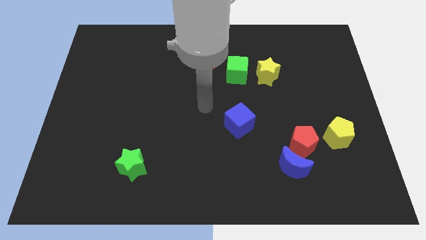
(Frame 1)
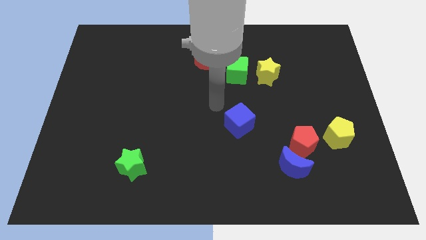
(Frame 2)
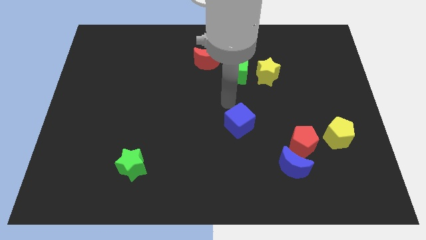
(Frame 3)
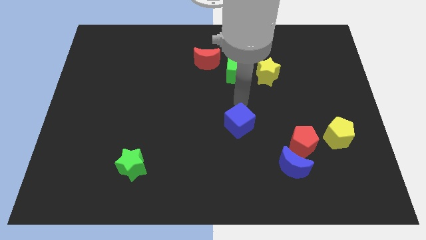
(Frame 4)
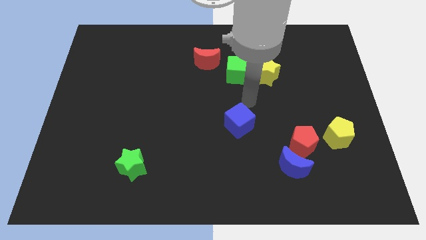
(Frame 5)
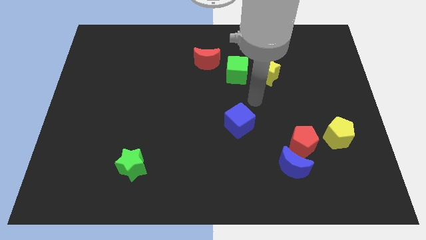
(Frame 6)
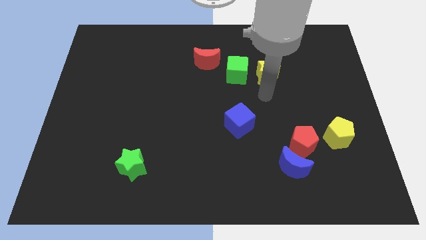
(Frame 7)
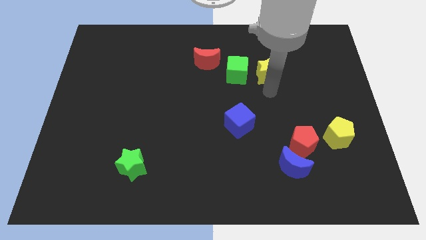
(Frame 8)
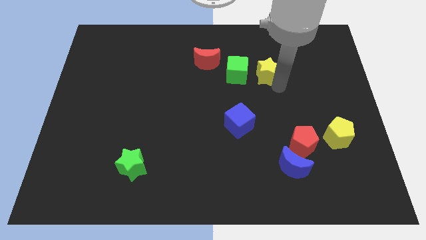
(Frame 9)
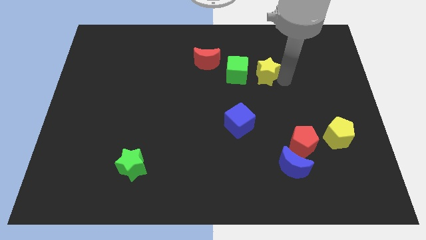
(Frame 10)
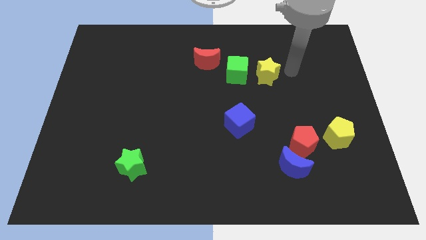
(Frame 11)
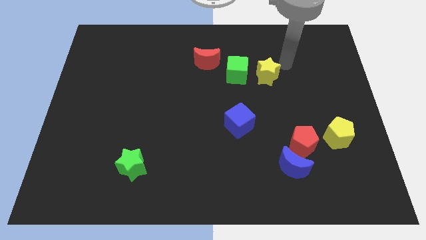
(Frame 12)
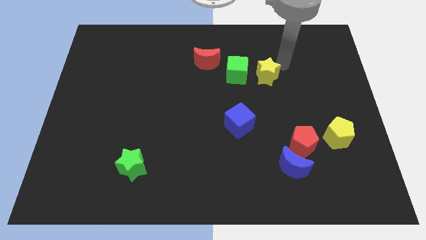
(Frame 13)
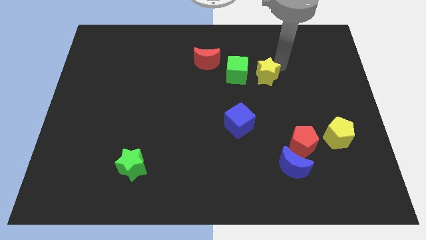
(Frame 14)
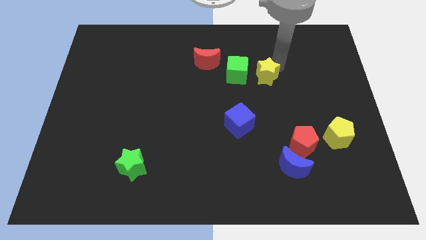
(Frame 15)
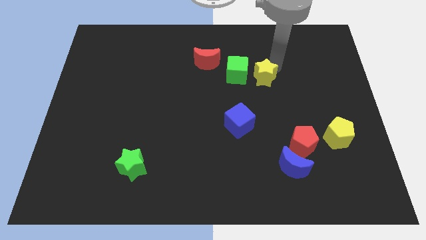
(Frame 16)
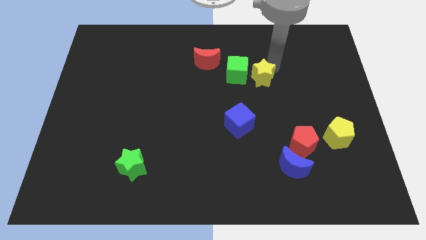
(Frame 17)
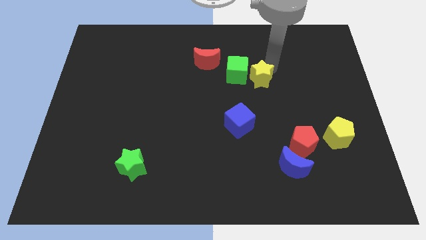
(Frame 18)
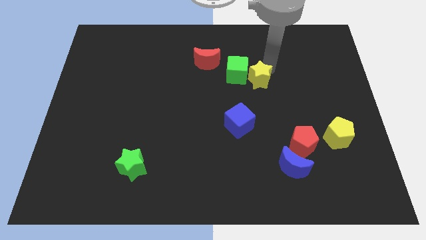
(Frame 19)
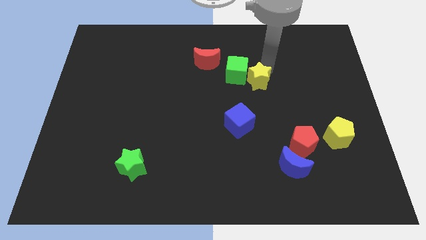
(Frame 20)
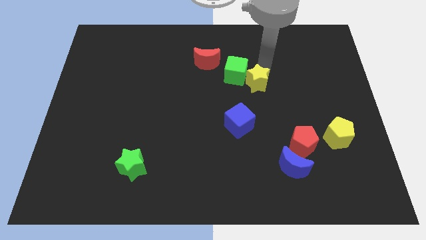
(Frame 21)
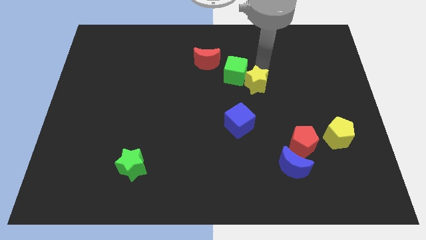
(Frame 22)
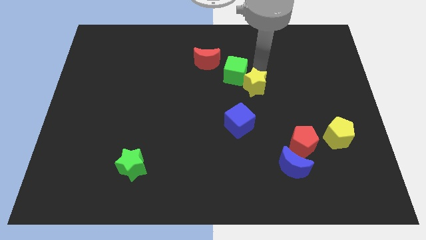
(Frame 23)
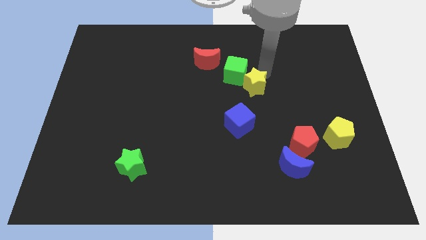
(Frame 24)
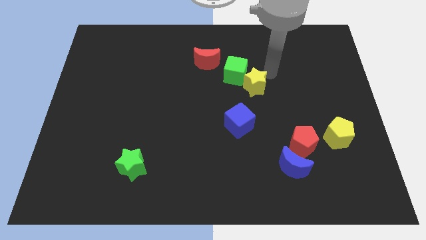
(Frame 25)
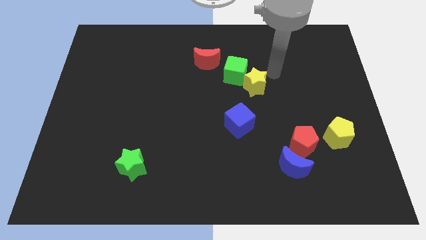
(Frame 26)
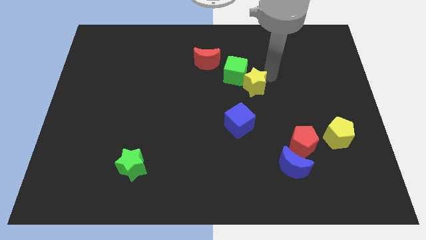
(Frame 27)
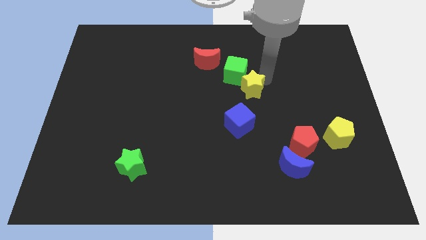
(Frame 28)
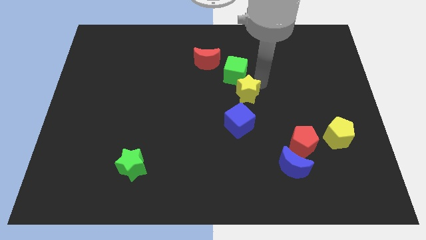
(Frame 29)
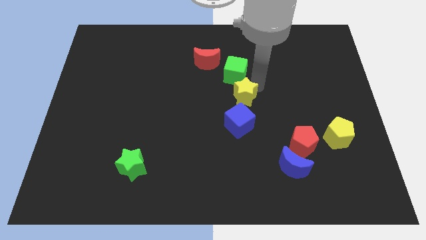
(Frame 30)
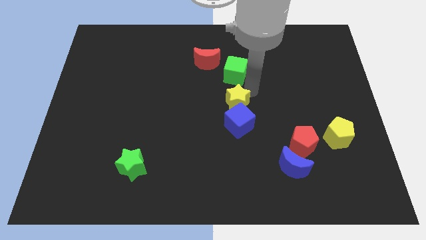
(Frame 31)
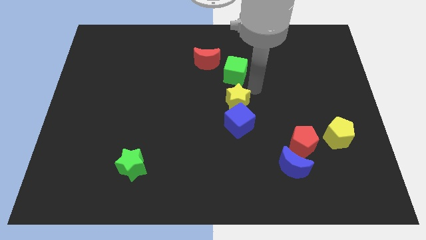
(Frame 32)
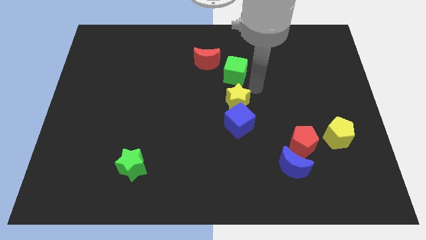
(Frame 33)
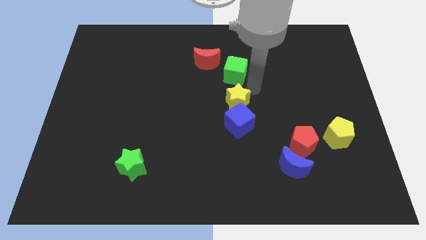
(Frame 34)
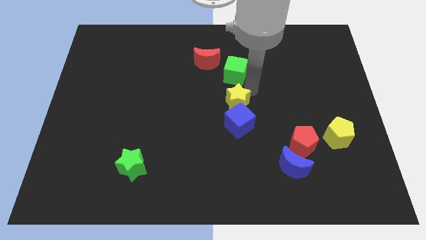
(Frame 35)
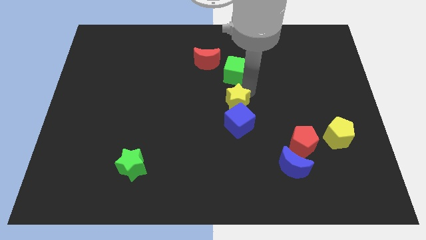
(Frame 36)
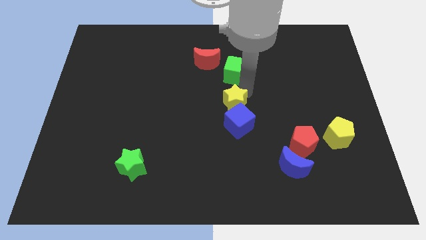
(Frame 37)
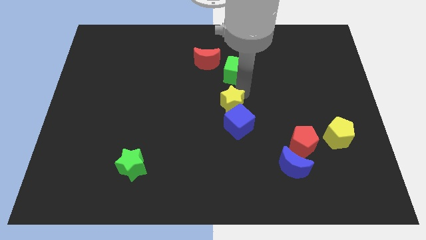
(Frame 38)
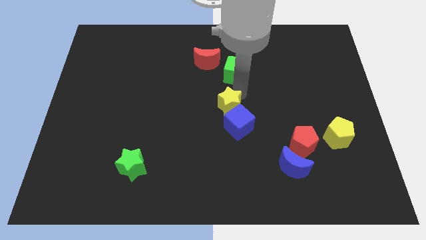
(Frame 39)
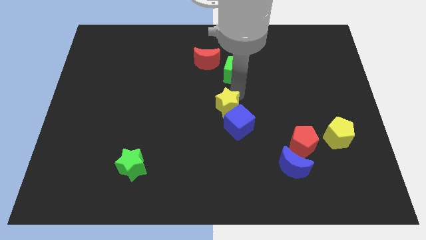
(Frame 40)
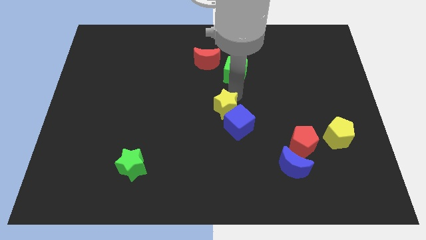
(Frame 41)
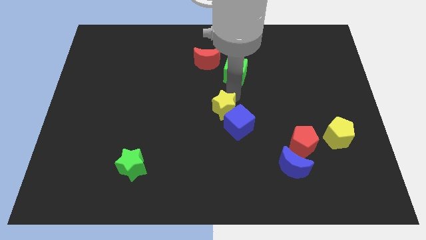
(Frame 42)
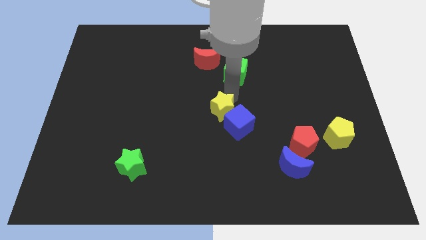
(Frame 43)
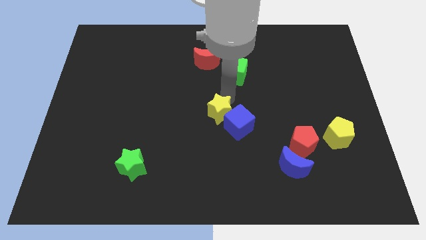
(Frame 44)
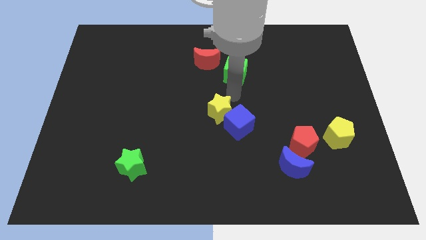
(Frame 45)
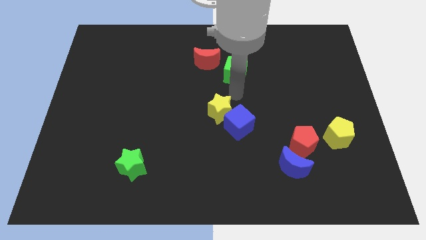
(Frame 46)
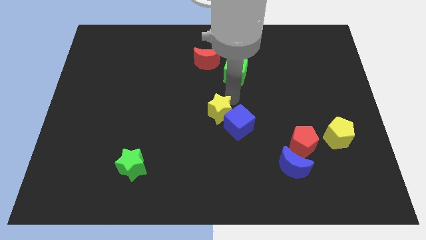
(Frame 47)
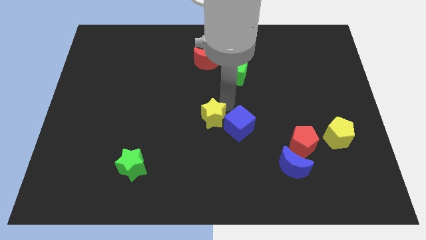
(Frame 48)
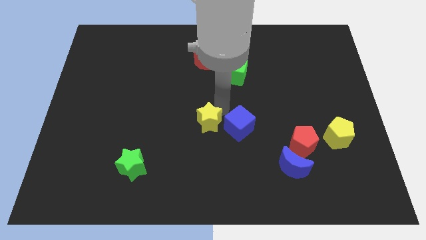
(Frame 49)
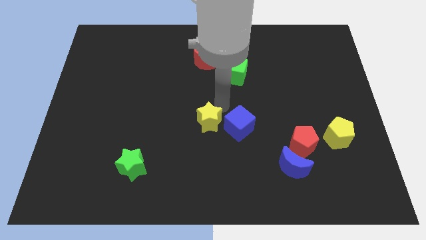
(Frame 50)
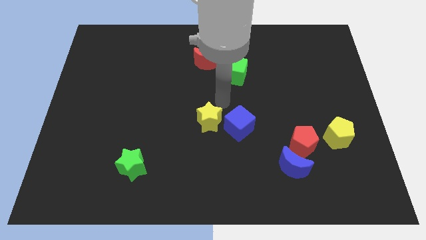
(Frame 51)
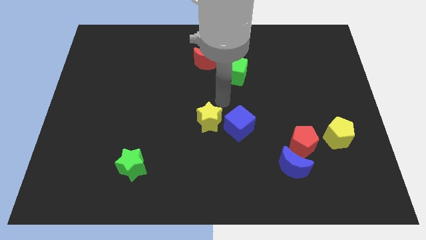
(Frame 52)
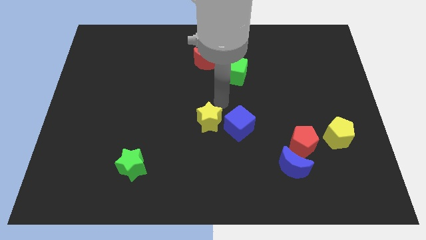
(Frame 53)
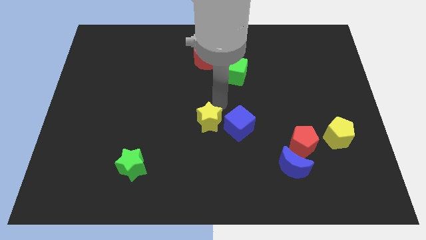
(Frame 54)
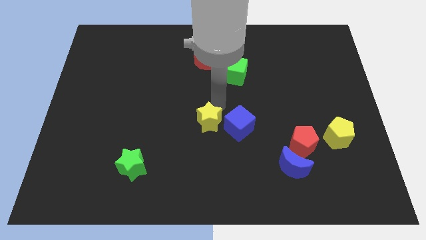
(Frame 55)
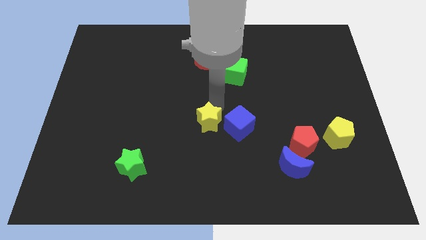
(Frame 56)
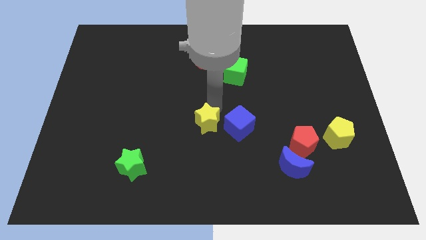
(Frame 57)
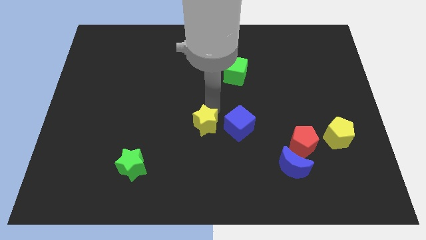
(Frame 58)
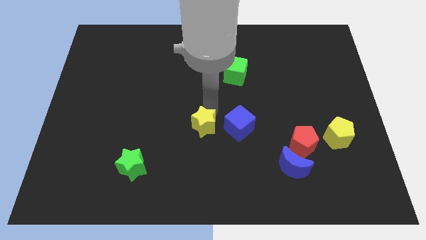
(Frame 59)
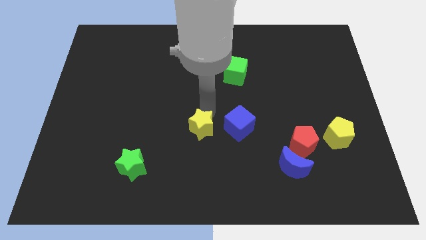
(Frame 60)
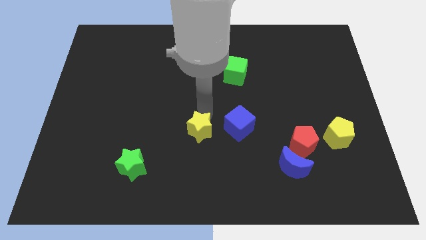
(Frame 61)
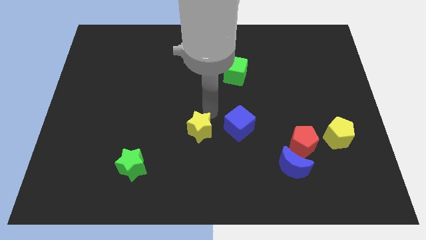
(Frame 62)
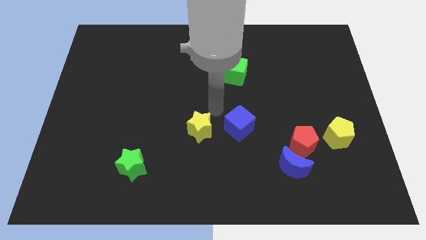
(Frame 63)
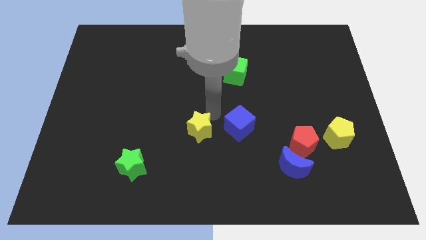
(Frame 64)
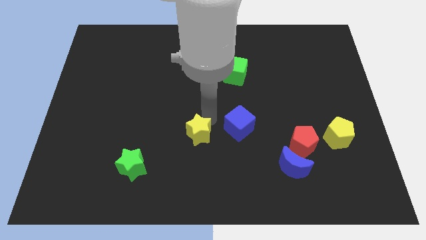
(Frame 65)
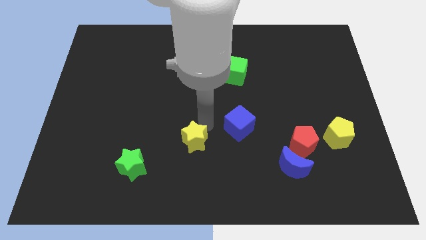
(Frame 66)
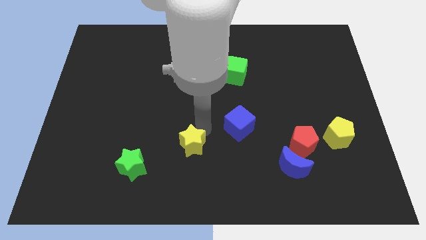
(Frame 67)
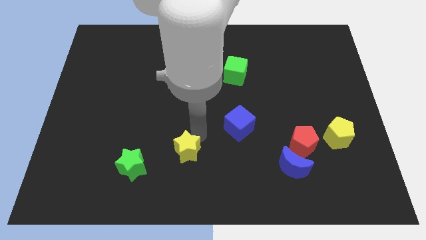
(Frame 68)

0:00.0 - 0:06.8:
push the yellow star to the right side of the green star
